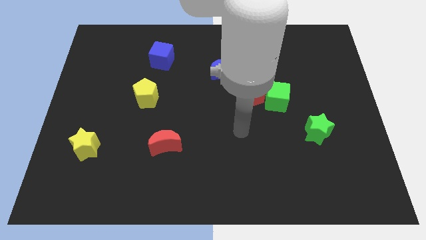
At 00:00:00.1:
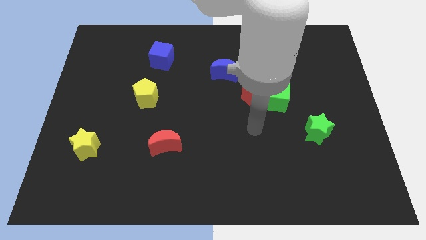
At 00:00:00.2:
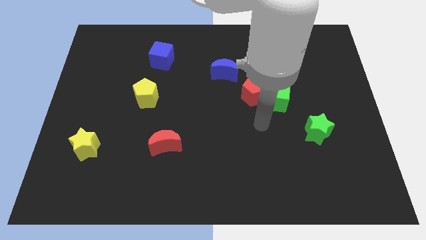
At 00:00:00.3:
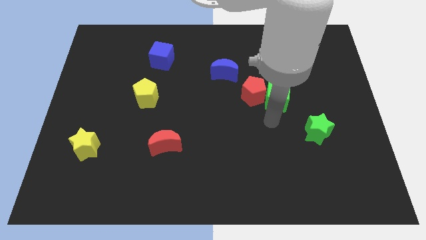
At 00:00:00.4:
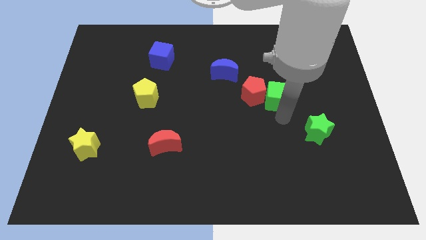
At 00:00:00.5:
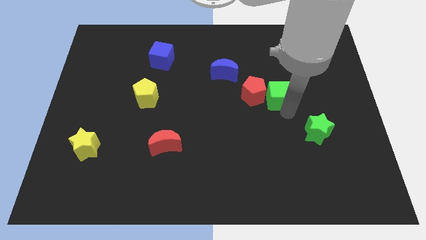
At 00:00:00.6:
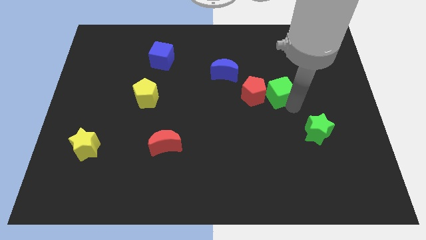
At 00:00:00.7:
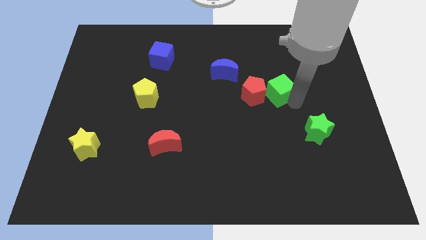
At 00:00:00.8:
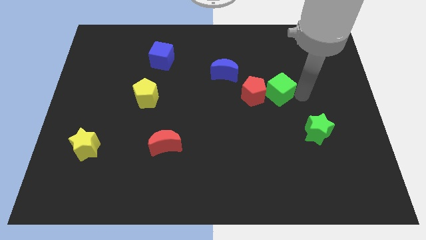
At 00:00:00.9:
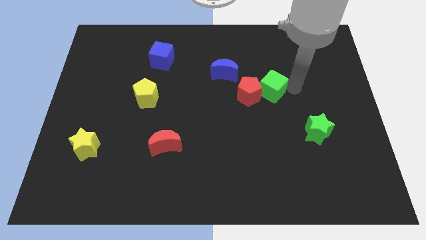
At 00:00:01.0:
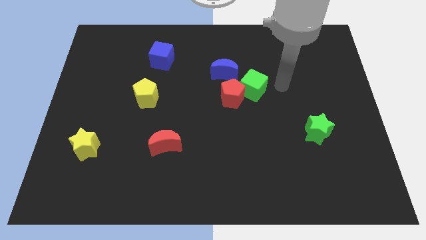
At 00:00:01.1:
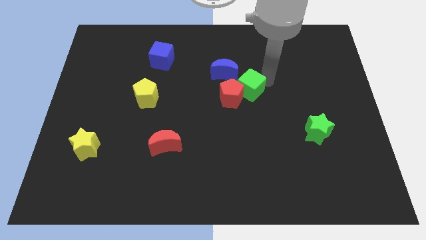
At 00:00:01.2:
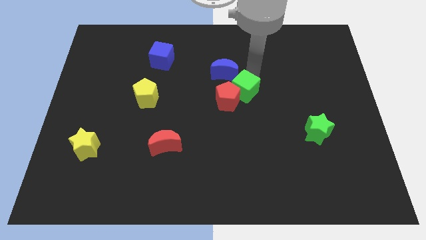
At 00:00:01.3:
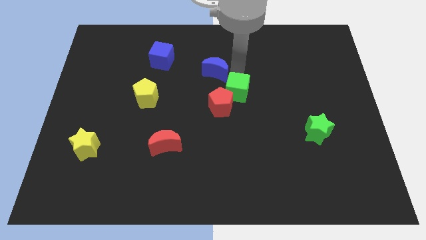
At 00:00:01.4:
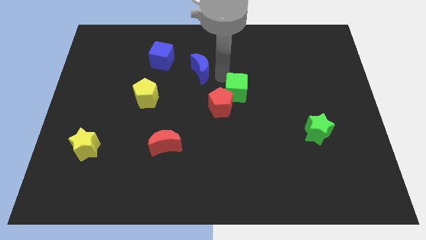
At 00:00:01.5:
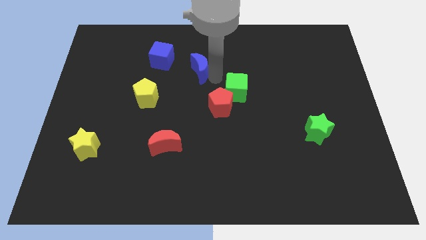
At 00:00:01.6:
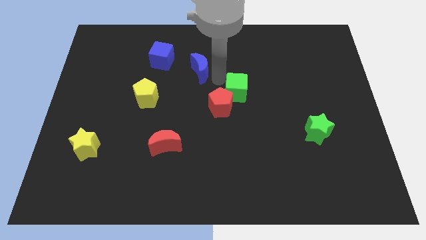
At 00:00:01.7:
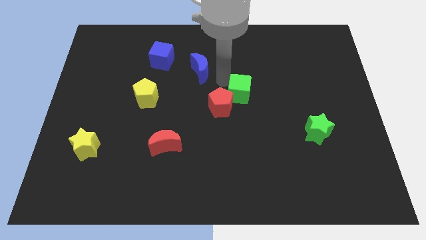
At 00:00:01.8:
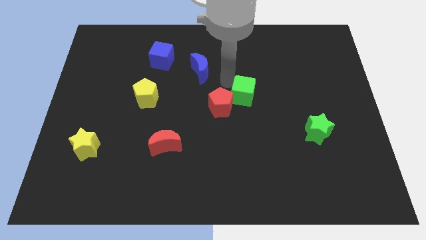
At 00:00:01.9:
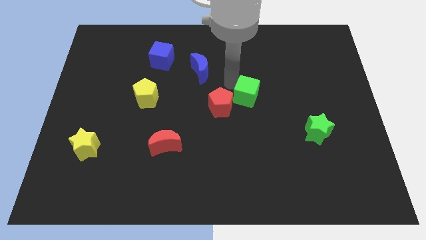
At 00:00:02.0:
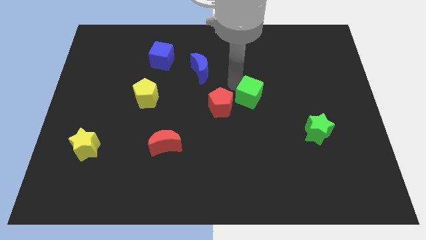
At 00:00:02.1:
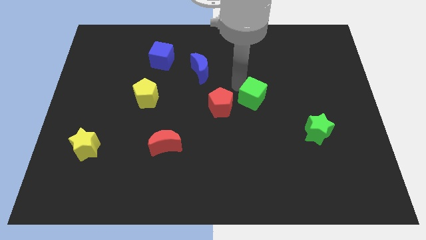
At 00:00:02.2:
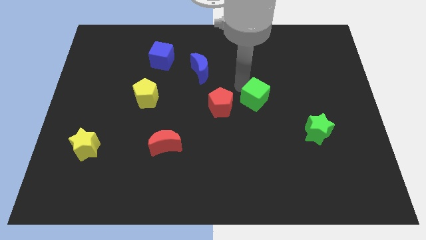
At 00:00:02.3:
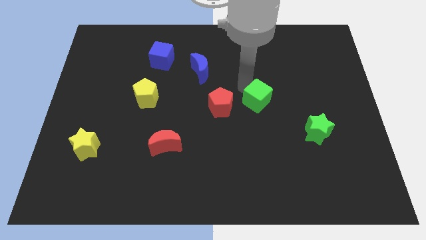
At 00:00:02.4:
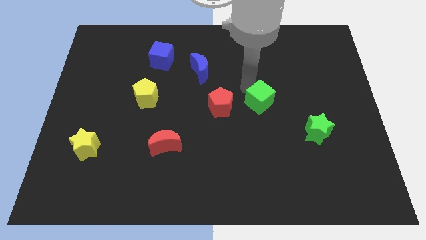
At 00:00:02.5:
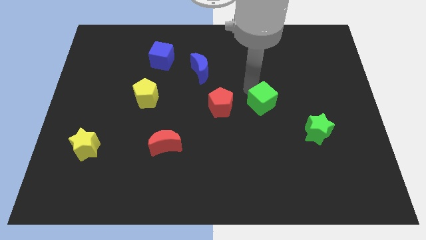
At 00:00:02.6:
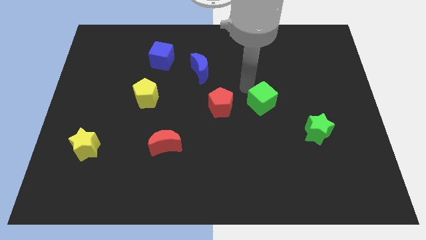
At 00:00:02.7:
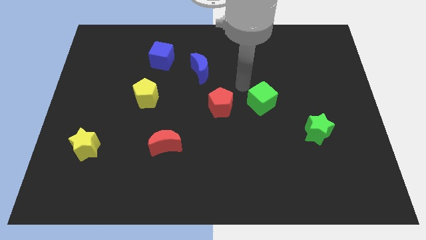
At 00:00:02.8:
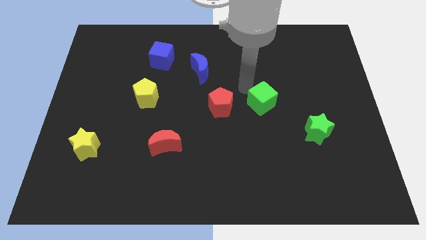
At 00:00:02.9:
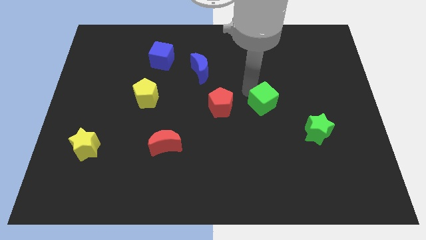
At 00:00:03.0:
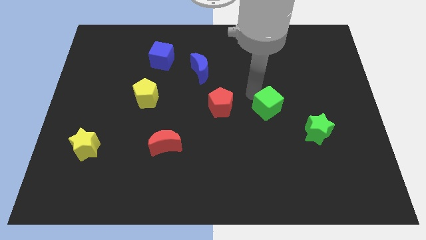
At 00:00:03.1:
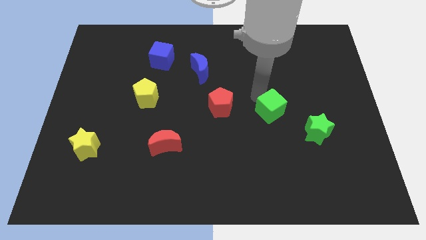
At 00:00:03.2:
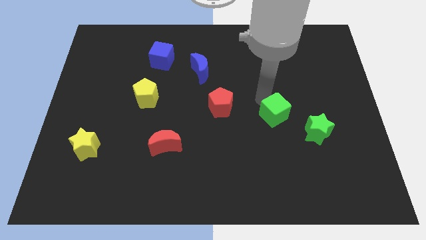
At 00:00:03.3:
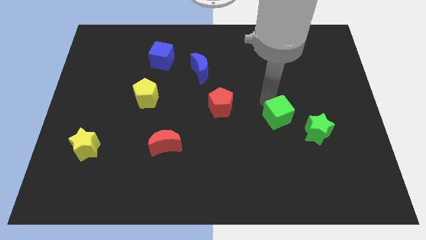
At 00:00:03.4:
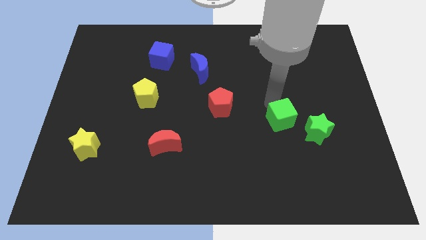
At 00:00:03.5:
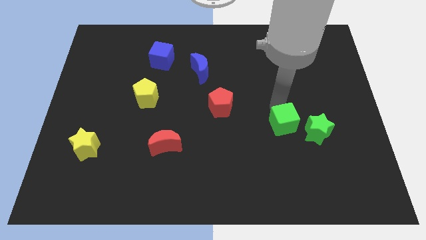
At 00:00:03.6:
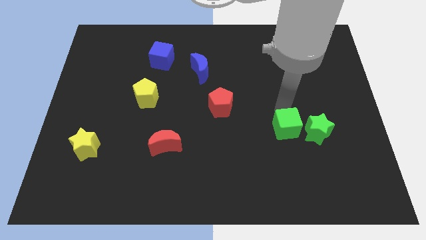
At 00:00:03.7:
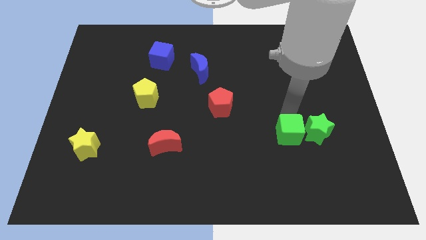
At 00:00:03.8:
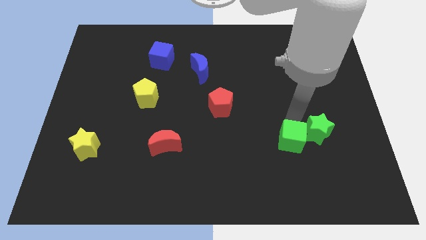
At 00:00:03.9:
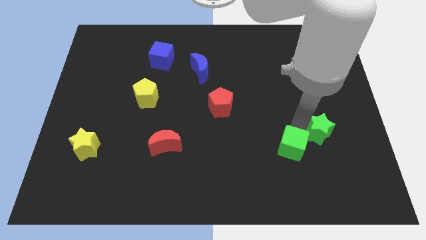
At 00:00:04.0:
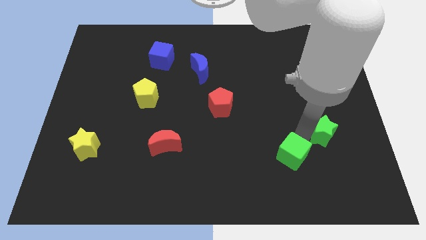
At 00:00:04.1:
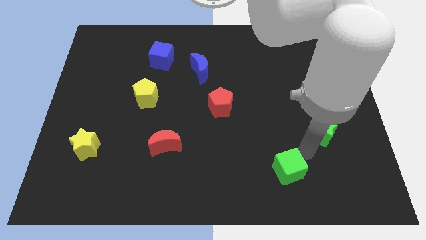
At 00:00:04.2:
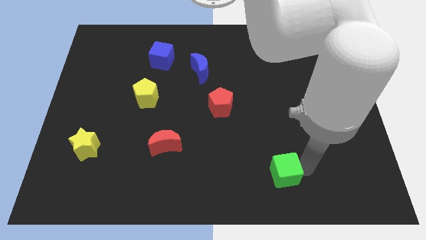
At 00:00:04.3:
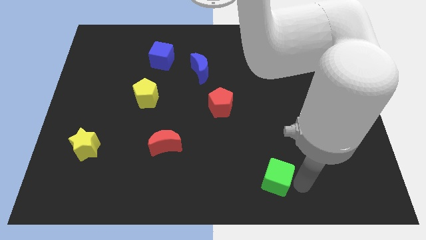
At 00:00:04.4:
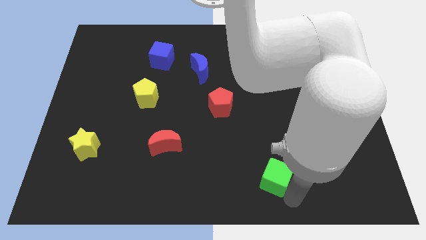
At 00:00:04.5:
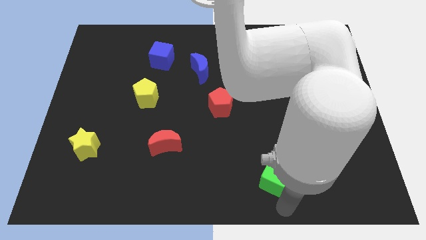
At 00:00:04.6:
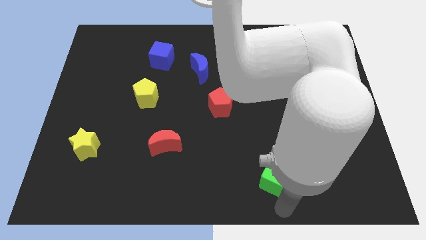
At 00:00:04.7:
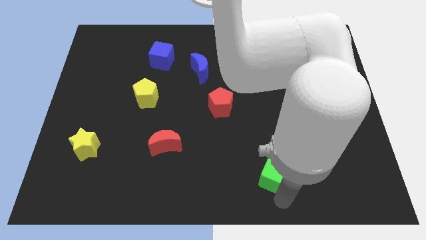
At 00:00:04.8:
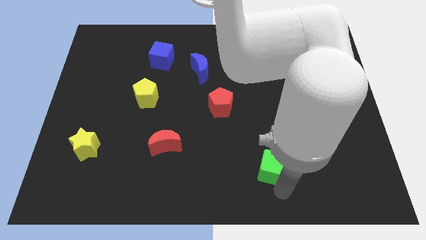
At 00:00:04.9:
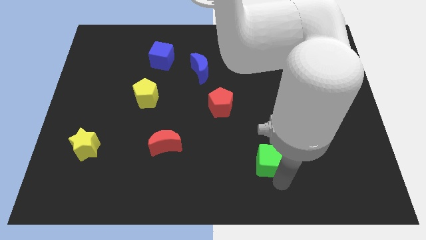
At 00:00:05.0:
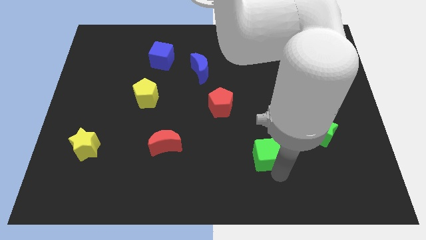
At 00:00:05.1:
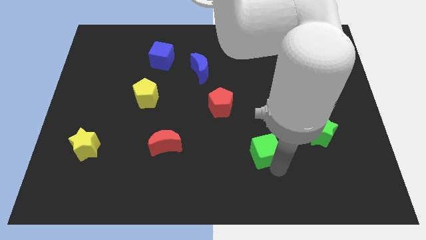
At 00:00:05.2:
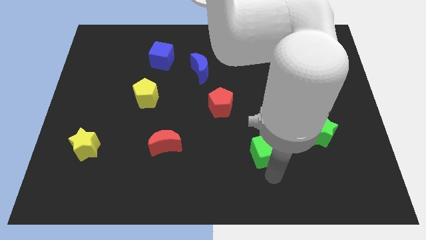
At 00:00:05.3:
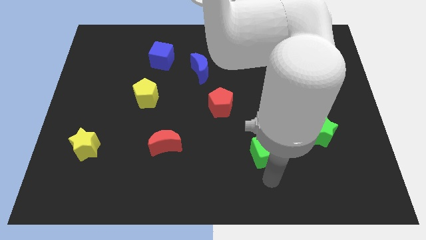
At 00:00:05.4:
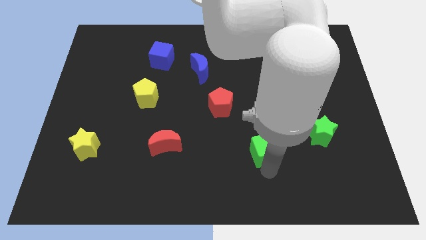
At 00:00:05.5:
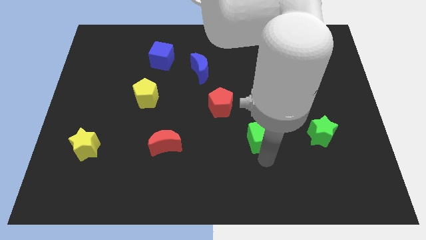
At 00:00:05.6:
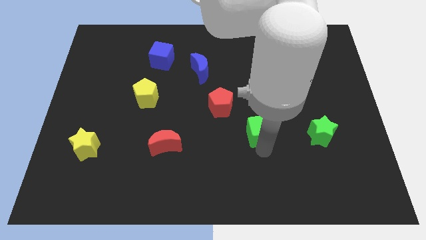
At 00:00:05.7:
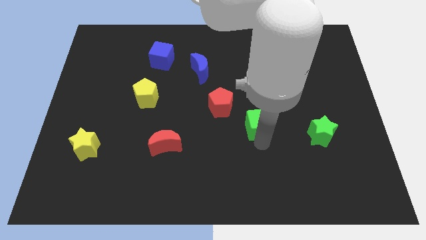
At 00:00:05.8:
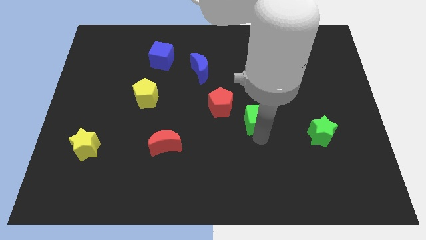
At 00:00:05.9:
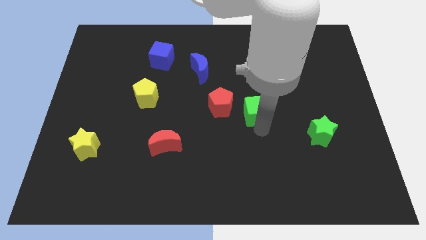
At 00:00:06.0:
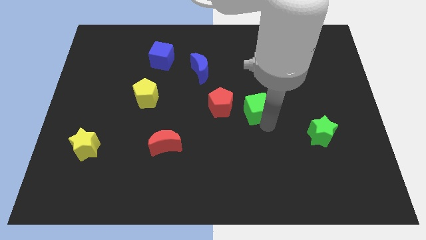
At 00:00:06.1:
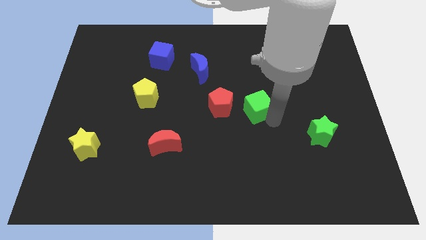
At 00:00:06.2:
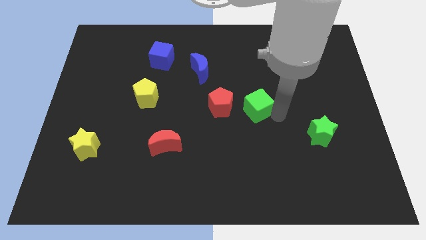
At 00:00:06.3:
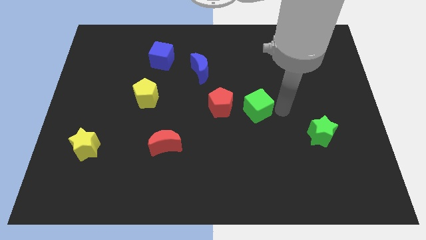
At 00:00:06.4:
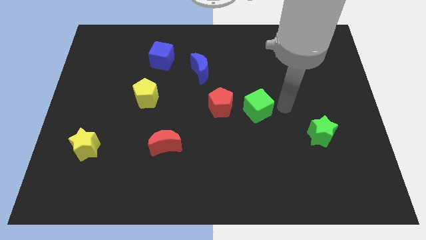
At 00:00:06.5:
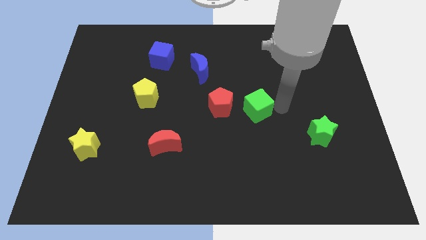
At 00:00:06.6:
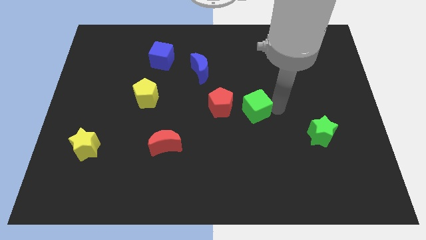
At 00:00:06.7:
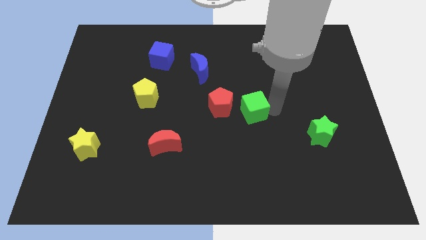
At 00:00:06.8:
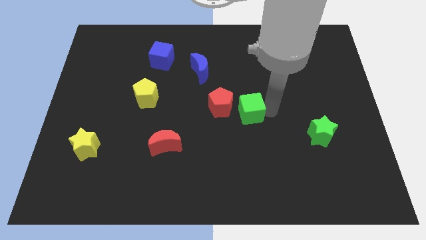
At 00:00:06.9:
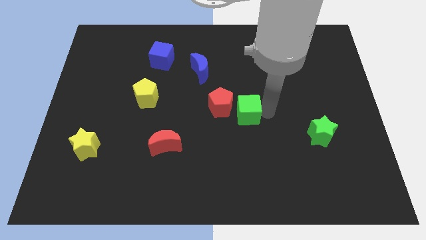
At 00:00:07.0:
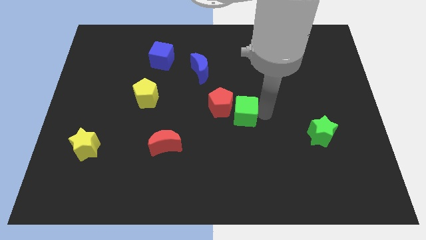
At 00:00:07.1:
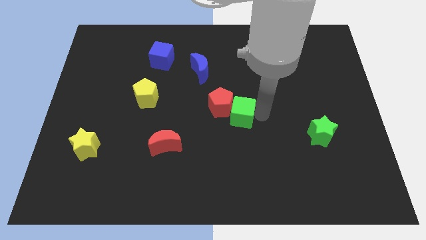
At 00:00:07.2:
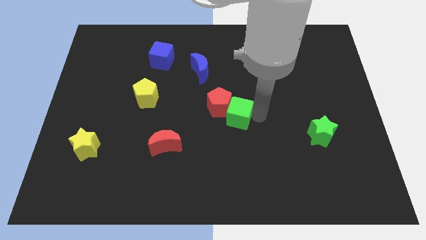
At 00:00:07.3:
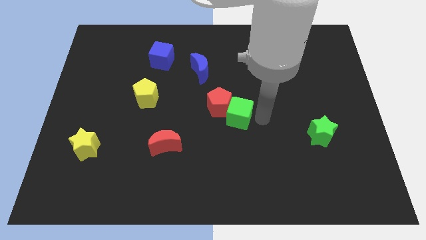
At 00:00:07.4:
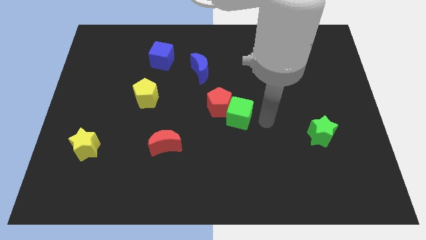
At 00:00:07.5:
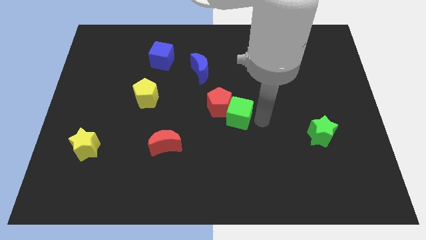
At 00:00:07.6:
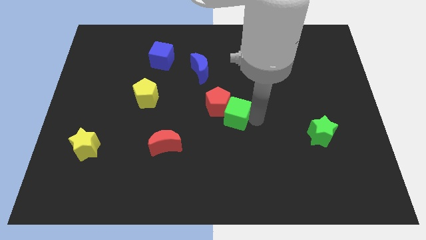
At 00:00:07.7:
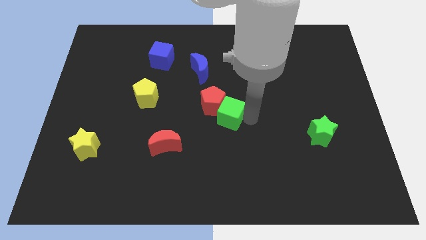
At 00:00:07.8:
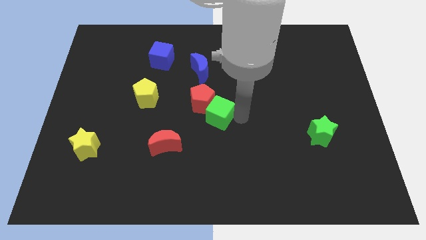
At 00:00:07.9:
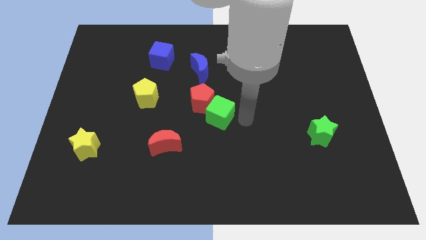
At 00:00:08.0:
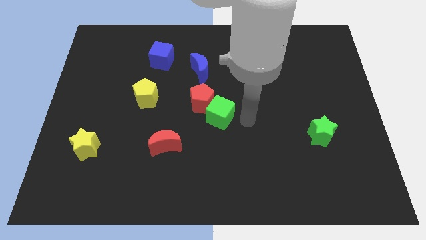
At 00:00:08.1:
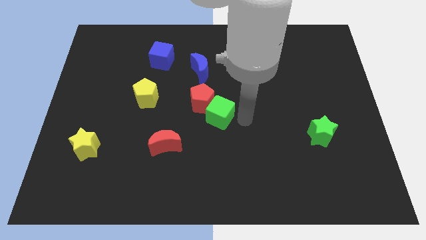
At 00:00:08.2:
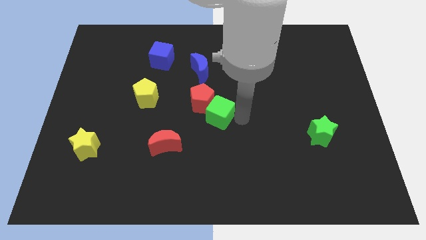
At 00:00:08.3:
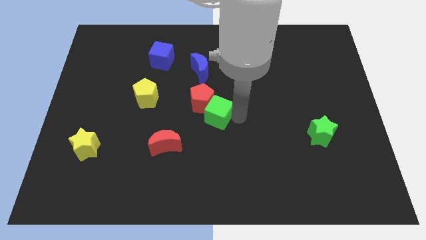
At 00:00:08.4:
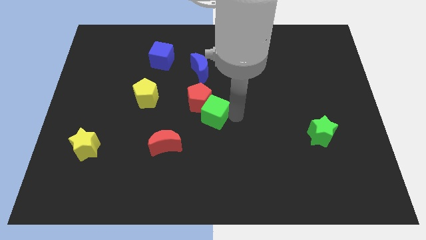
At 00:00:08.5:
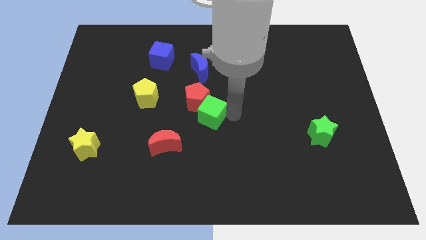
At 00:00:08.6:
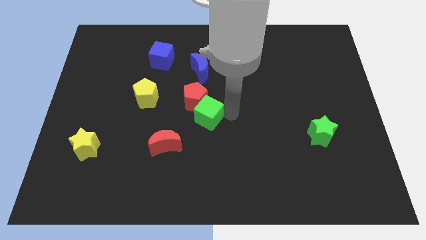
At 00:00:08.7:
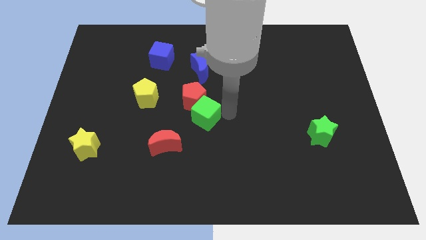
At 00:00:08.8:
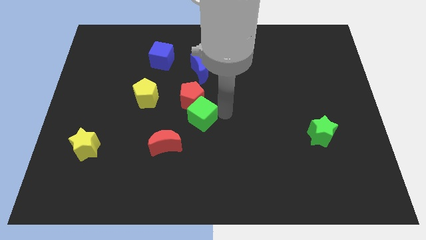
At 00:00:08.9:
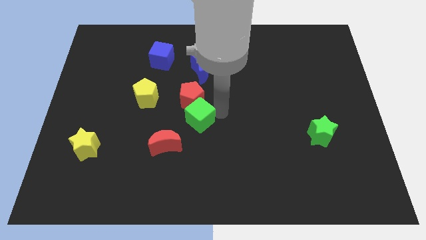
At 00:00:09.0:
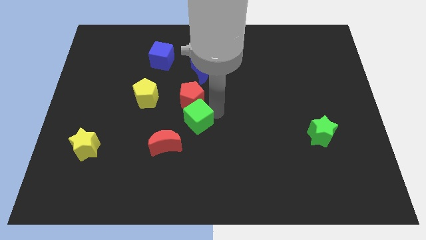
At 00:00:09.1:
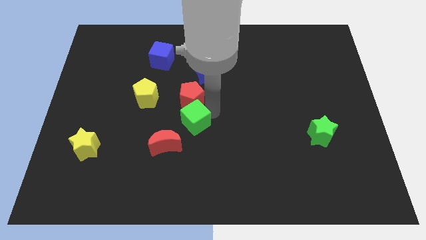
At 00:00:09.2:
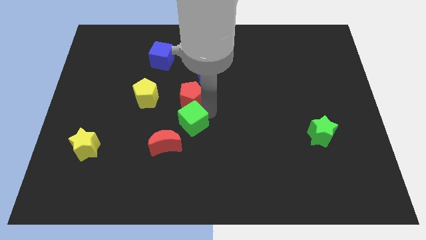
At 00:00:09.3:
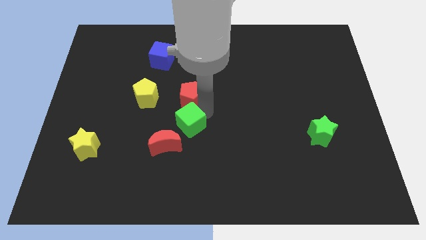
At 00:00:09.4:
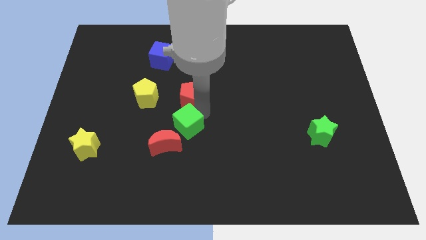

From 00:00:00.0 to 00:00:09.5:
put the green cube above the red moon
